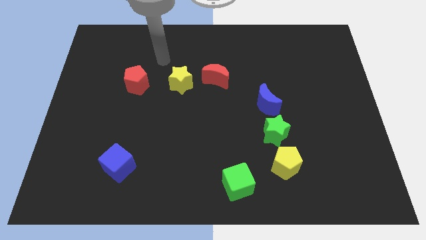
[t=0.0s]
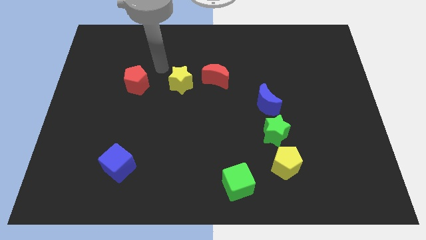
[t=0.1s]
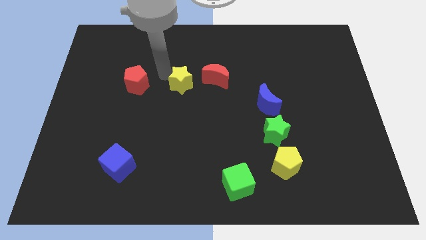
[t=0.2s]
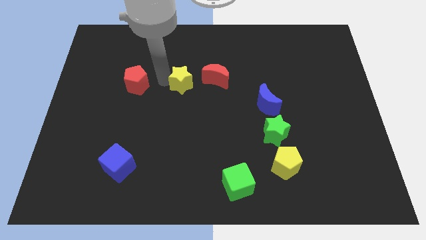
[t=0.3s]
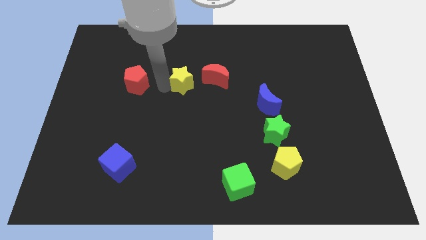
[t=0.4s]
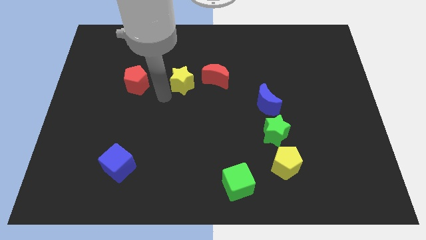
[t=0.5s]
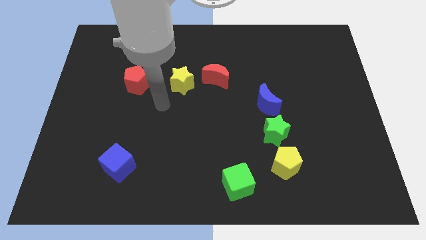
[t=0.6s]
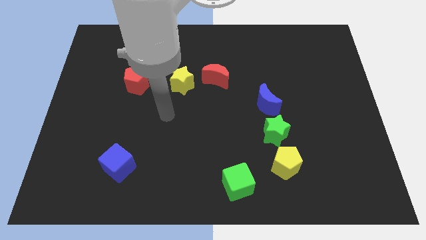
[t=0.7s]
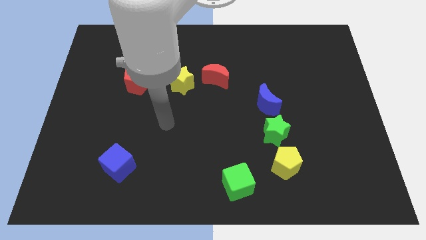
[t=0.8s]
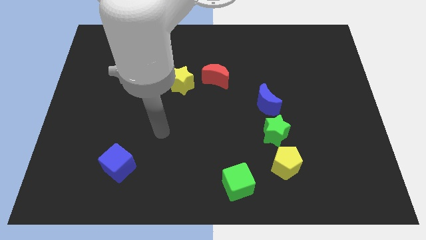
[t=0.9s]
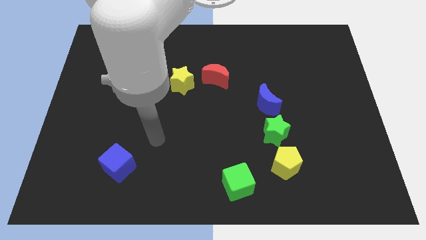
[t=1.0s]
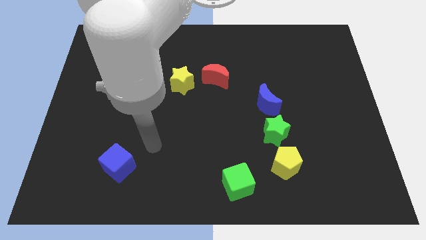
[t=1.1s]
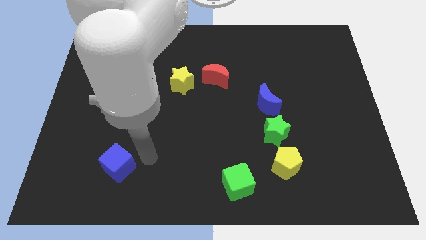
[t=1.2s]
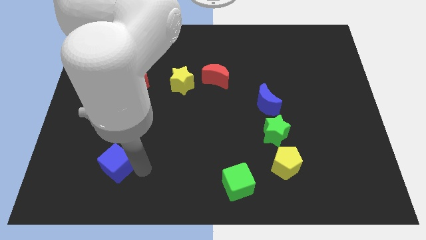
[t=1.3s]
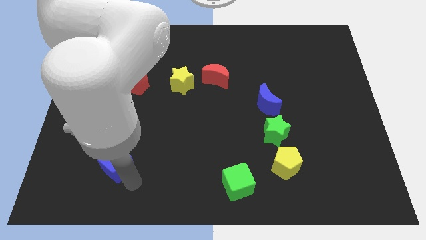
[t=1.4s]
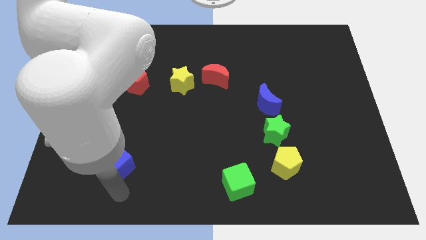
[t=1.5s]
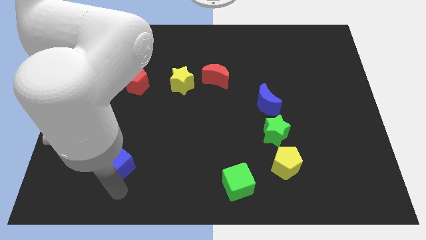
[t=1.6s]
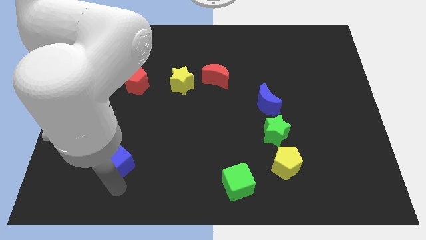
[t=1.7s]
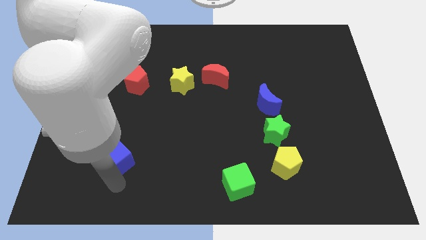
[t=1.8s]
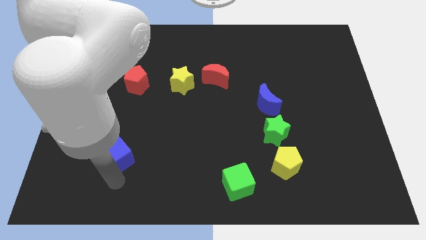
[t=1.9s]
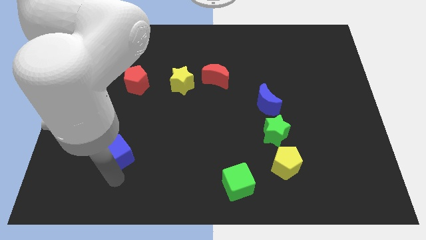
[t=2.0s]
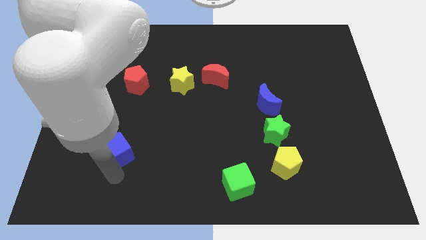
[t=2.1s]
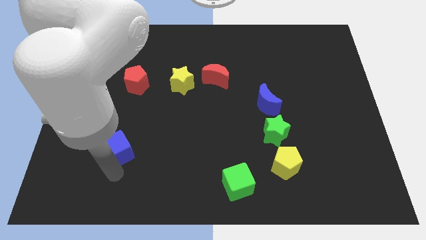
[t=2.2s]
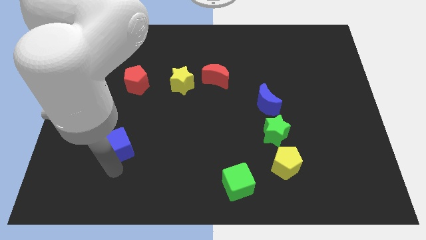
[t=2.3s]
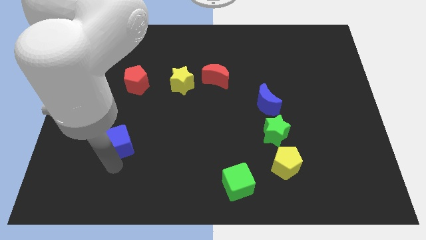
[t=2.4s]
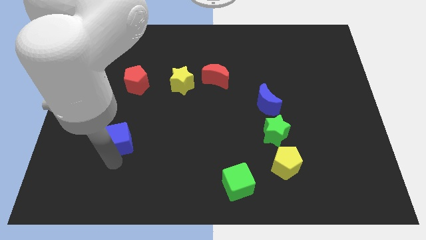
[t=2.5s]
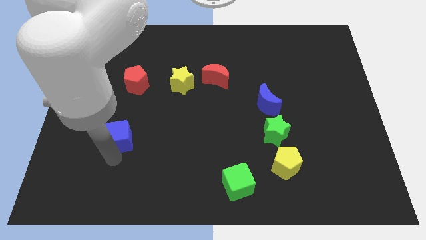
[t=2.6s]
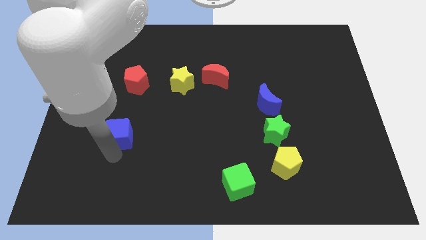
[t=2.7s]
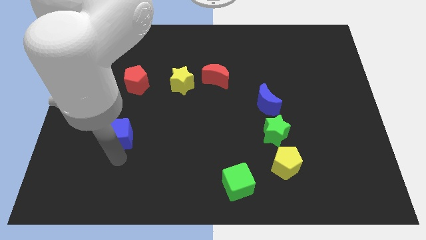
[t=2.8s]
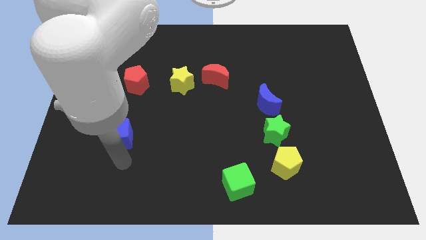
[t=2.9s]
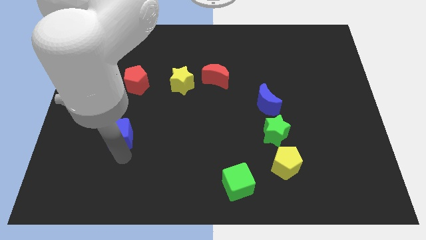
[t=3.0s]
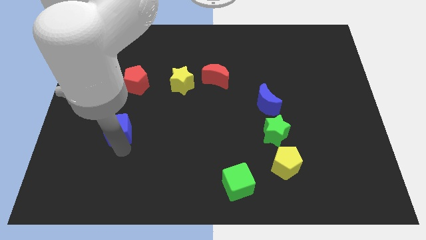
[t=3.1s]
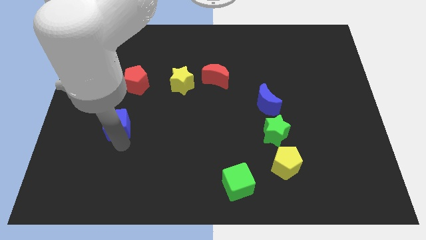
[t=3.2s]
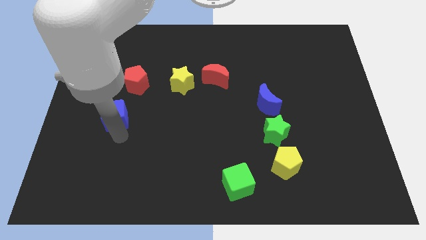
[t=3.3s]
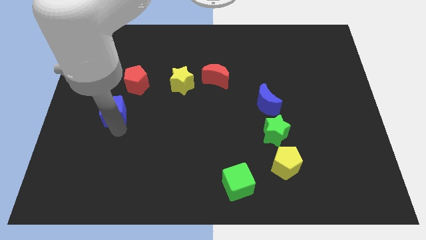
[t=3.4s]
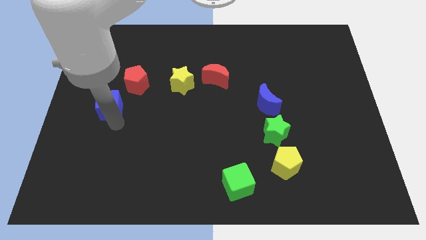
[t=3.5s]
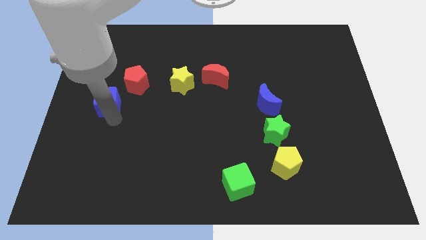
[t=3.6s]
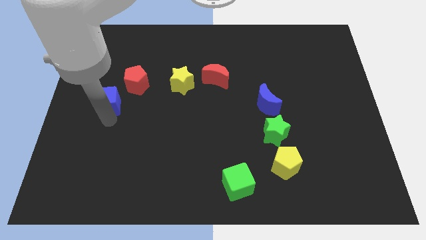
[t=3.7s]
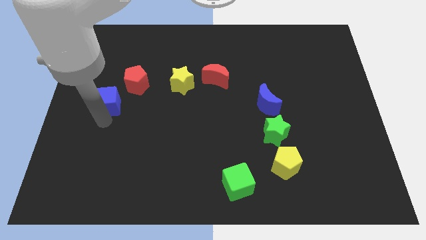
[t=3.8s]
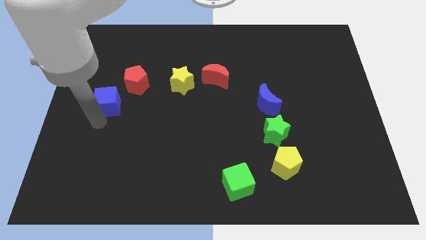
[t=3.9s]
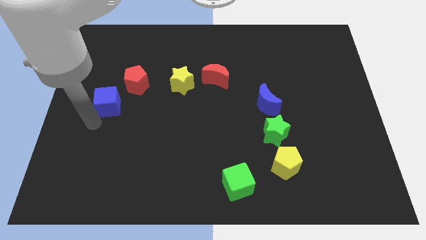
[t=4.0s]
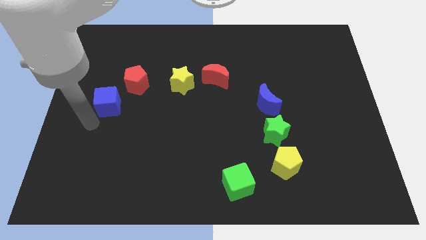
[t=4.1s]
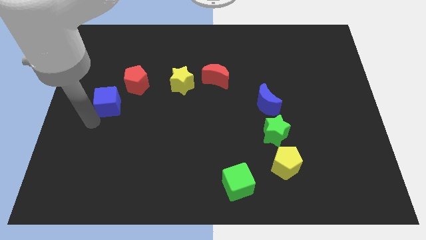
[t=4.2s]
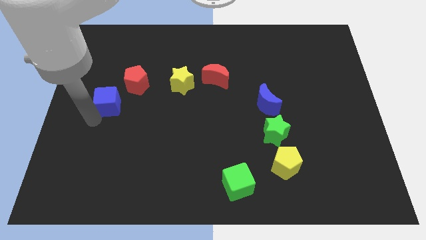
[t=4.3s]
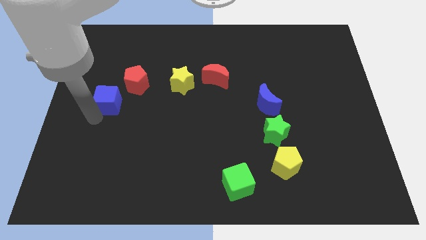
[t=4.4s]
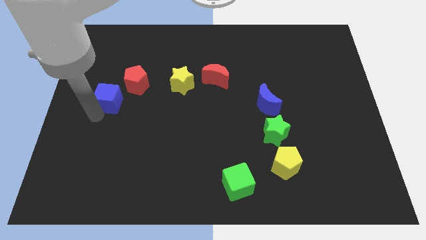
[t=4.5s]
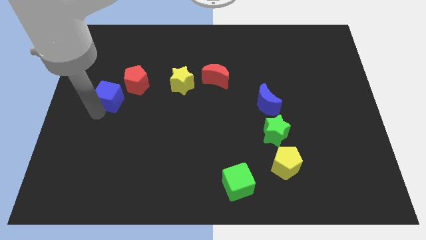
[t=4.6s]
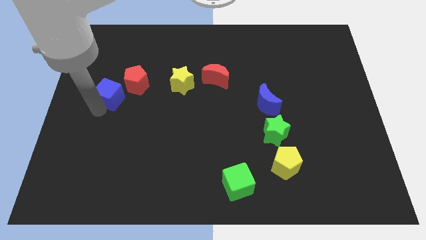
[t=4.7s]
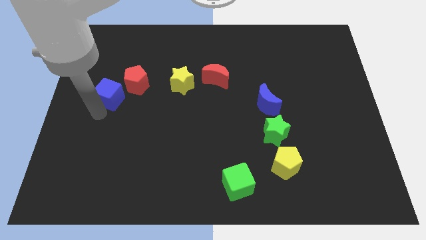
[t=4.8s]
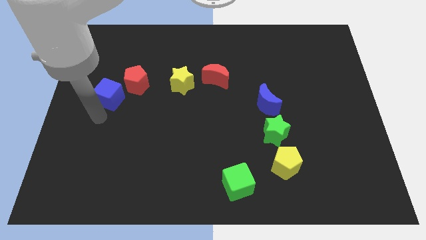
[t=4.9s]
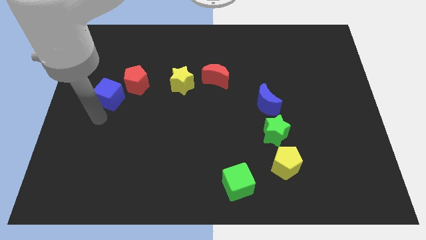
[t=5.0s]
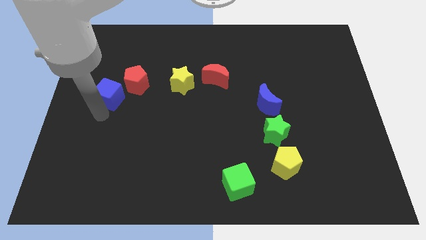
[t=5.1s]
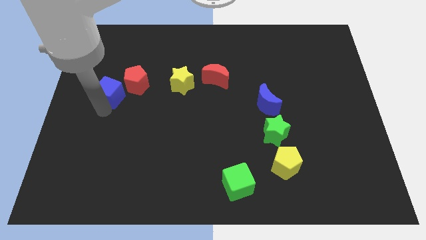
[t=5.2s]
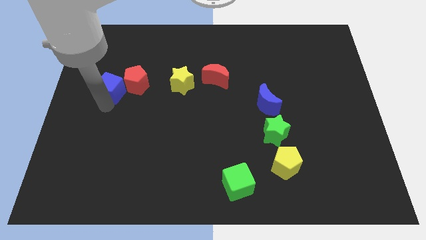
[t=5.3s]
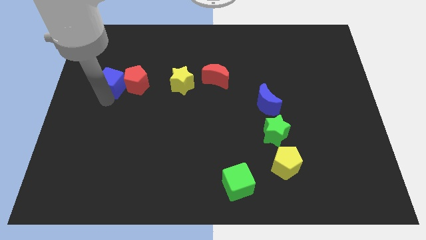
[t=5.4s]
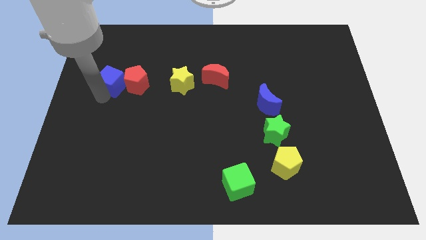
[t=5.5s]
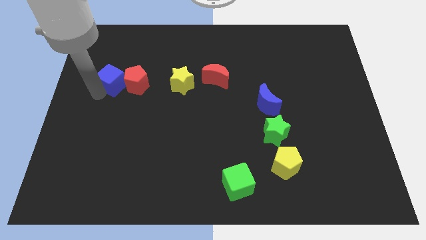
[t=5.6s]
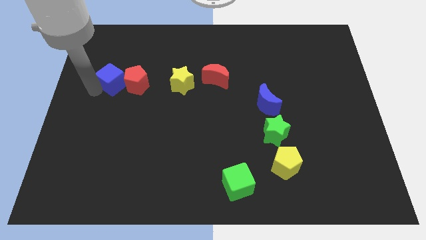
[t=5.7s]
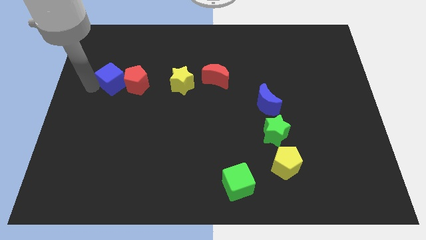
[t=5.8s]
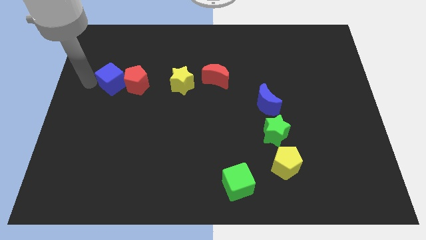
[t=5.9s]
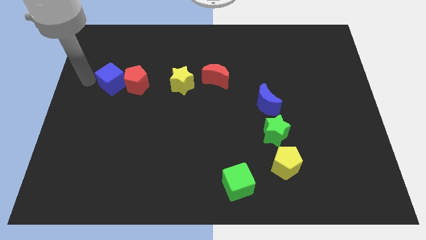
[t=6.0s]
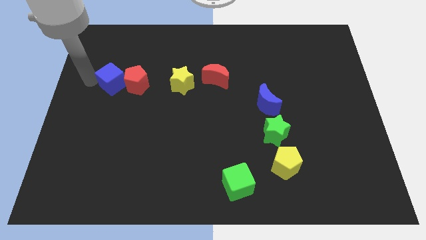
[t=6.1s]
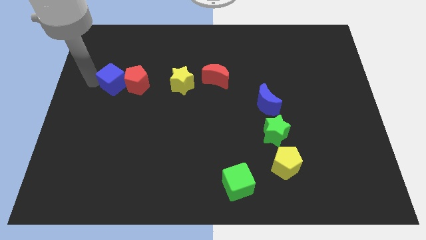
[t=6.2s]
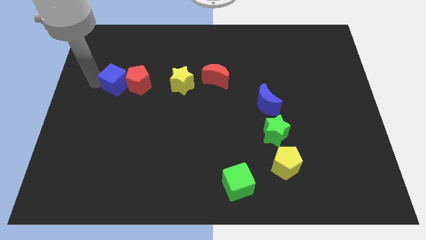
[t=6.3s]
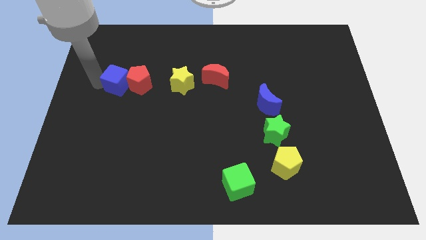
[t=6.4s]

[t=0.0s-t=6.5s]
slide the blue cube just left of the yellow star
